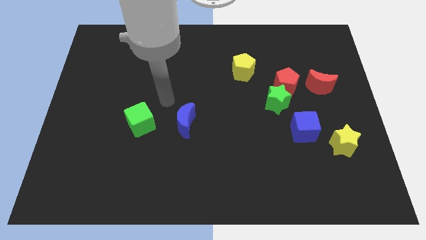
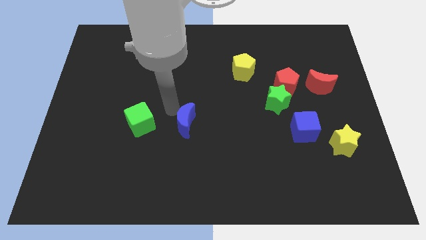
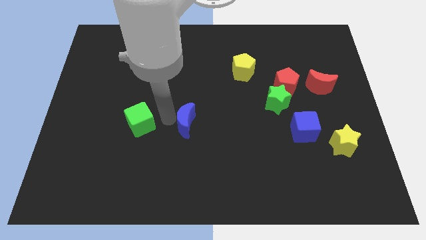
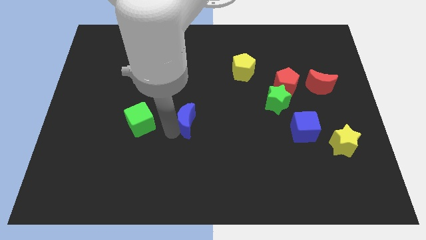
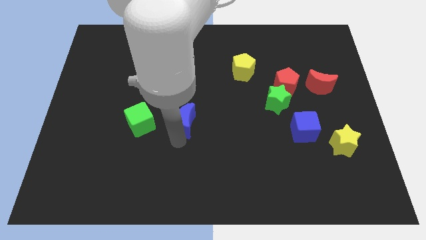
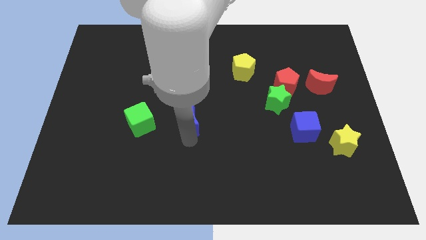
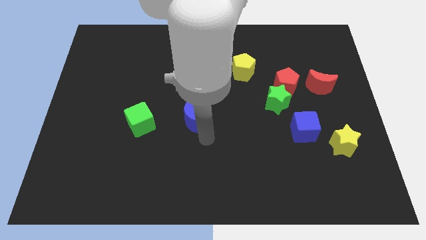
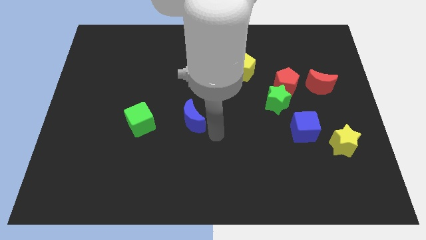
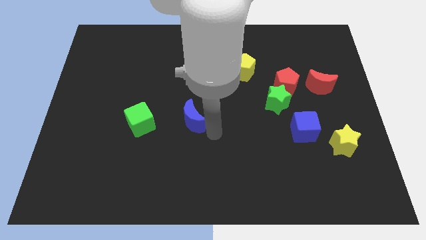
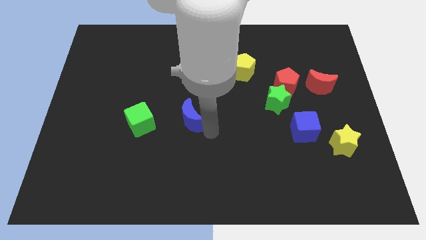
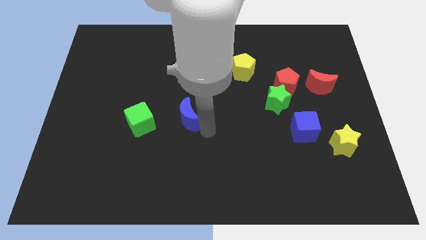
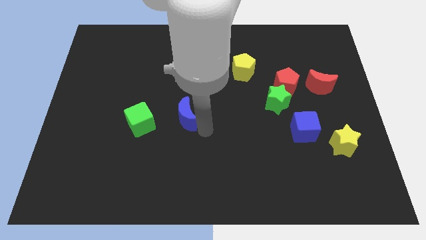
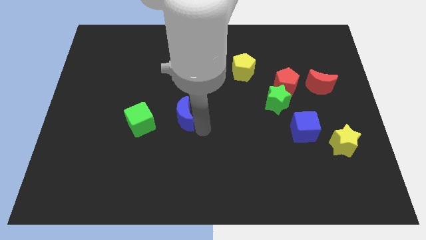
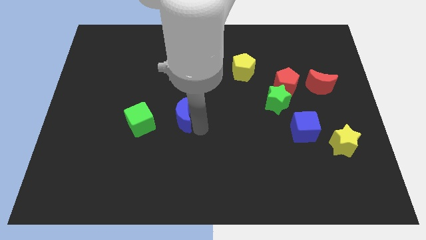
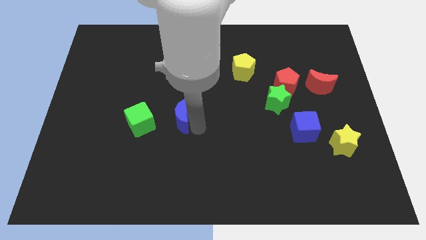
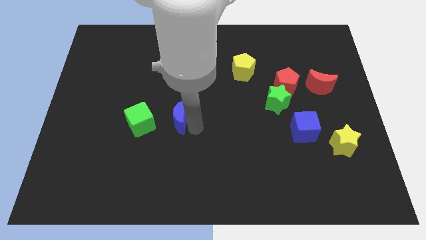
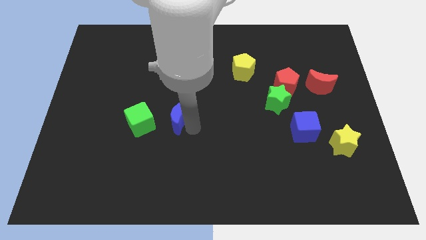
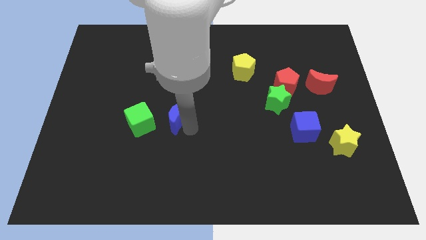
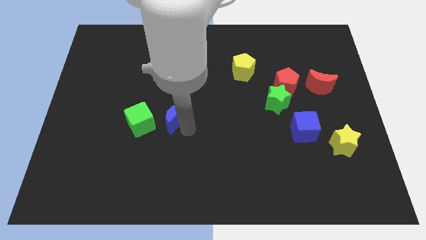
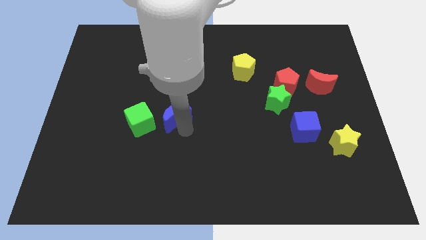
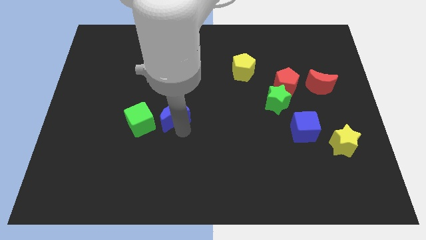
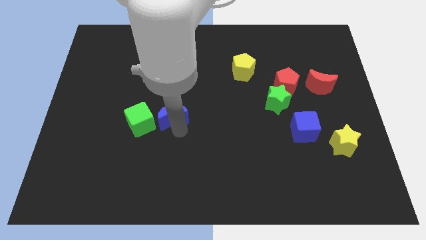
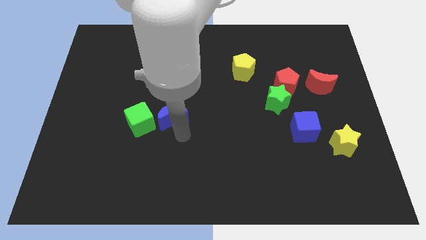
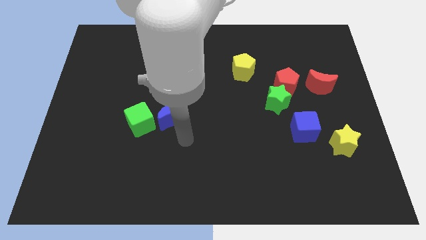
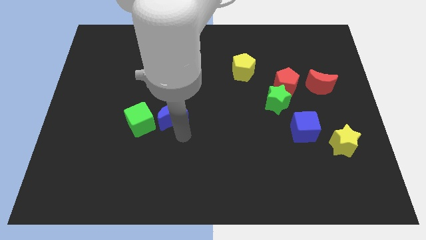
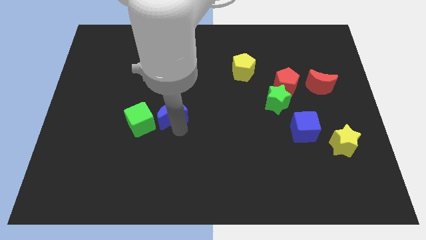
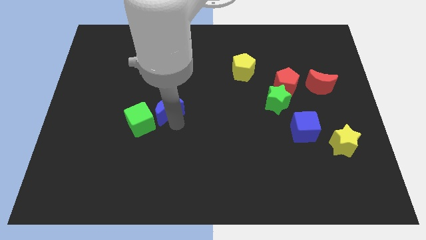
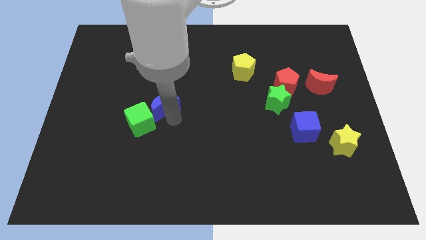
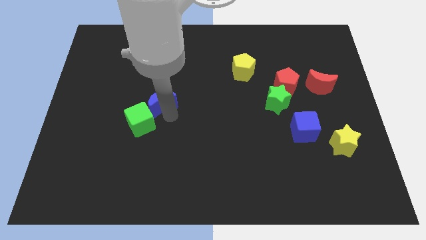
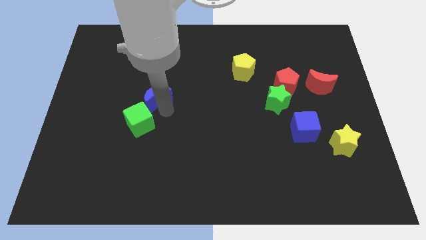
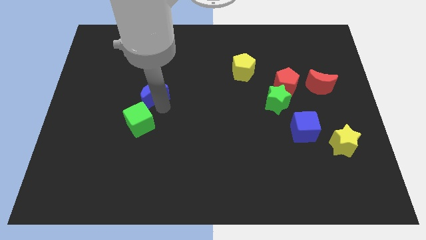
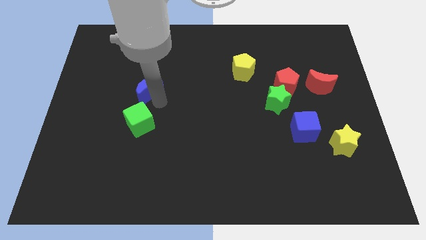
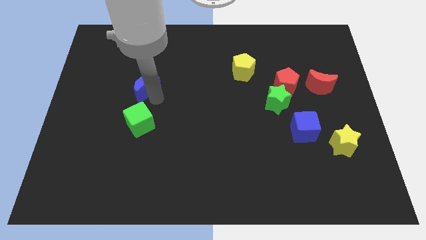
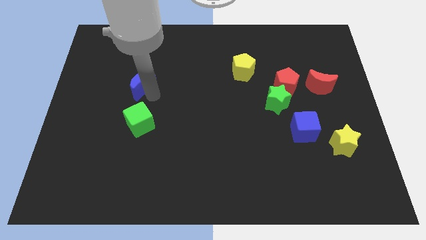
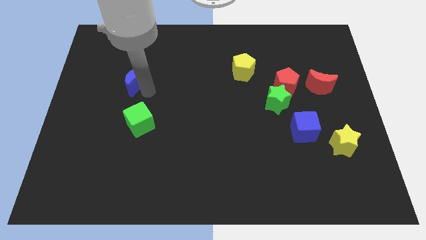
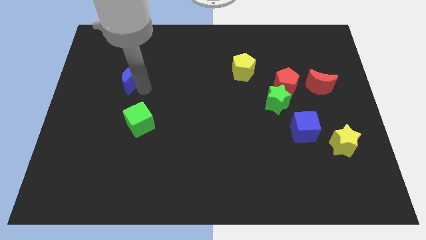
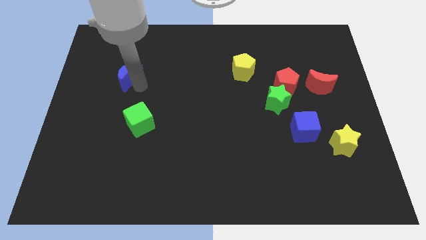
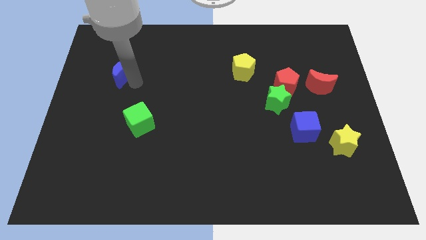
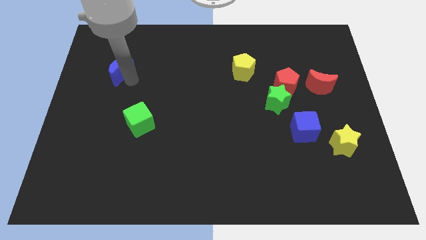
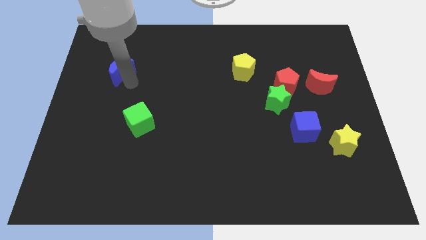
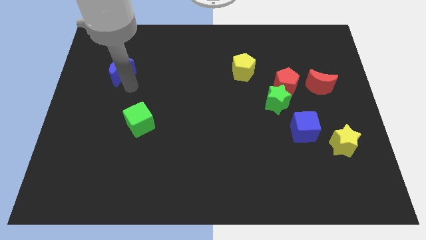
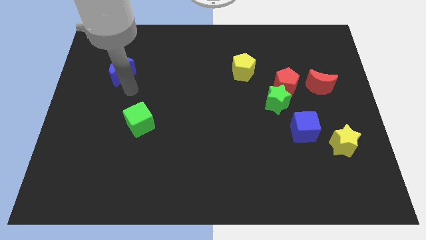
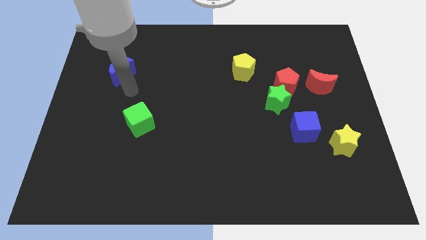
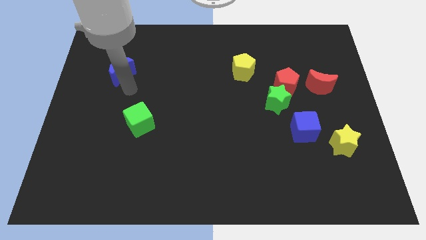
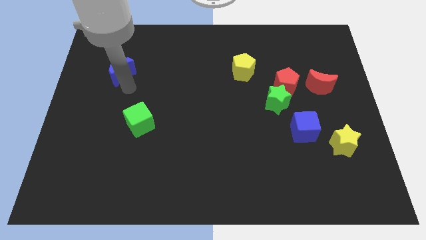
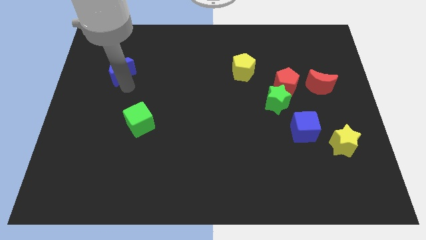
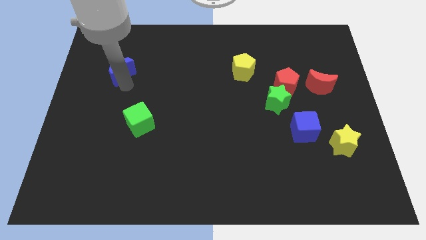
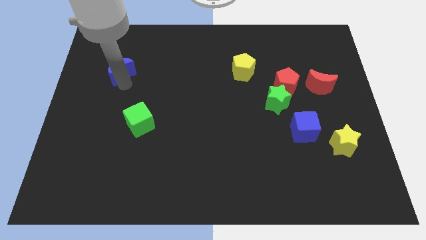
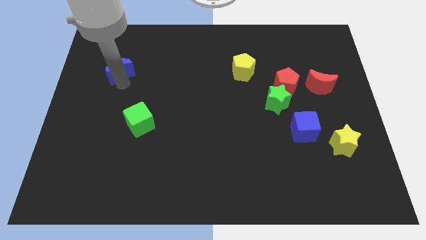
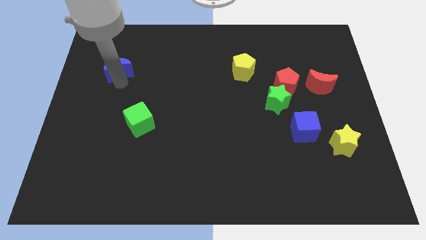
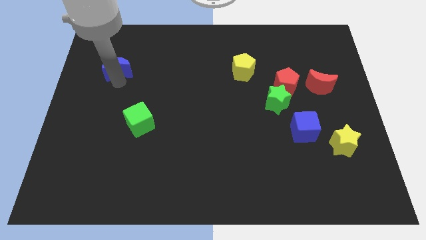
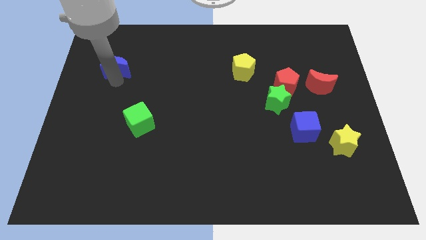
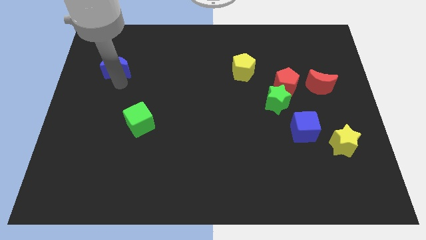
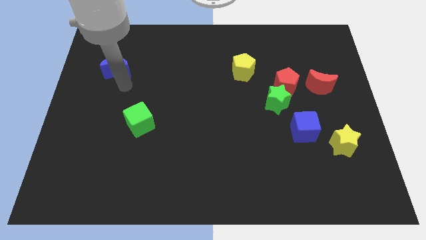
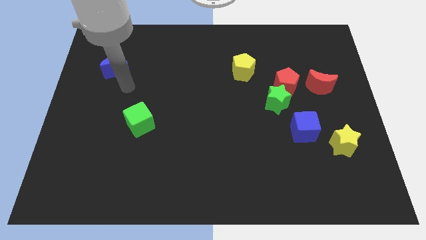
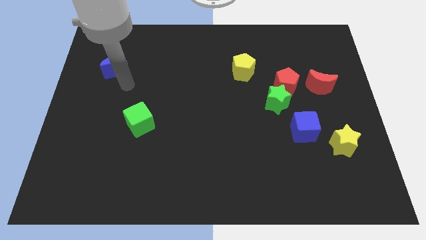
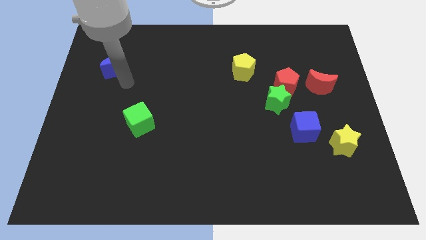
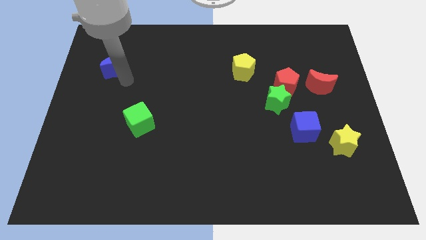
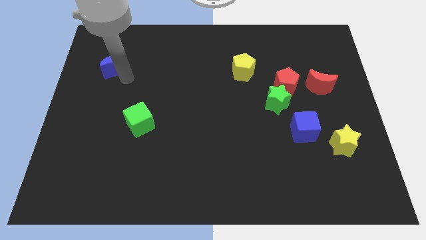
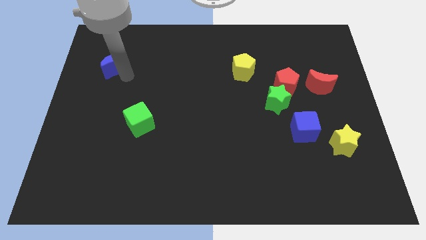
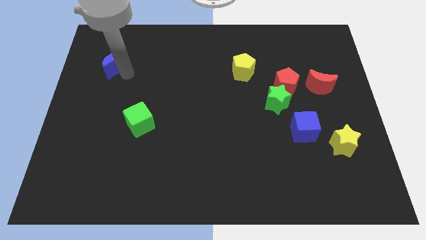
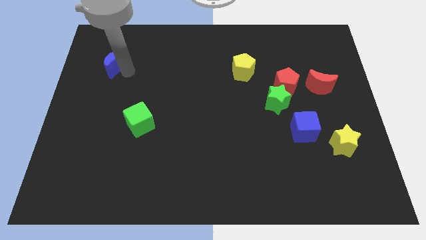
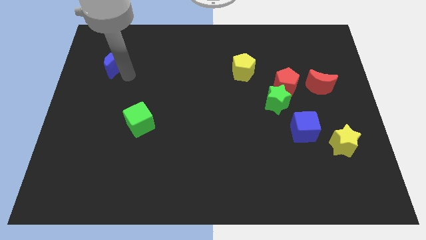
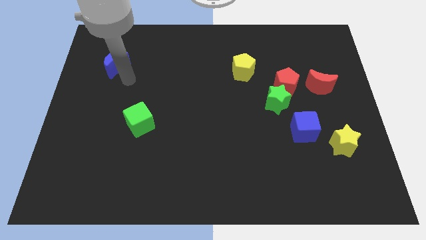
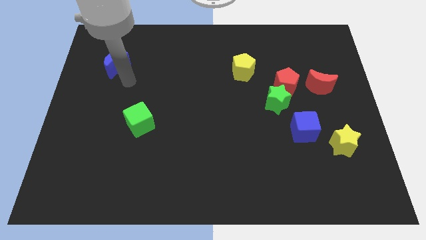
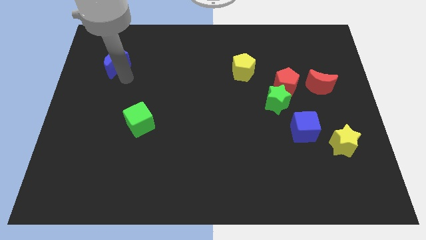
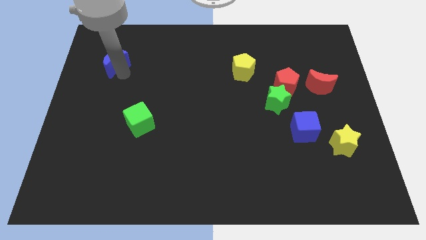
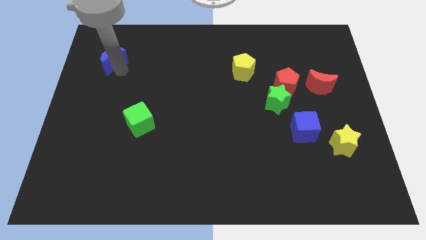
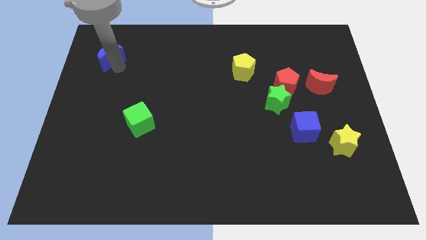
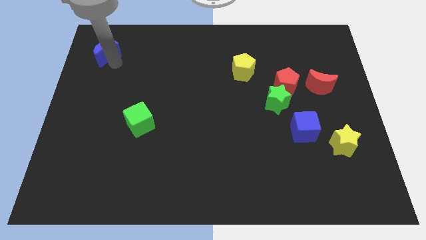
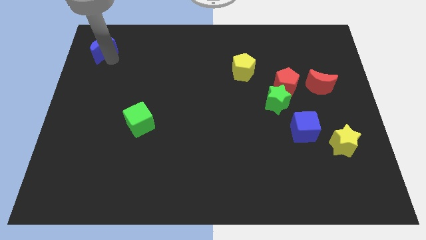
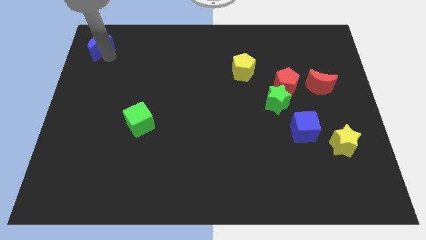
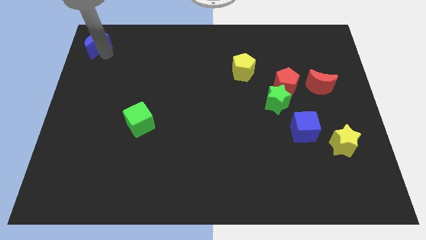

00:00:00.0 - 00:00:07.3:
slide the blue moon to the top left corner
